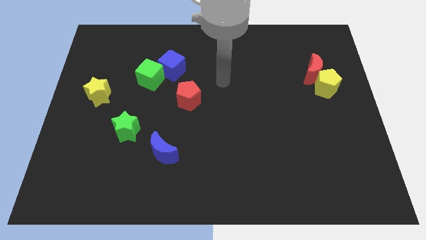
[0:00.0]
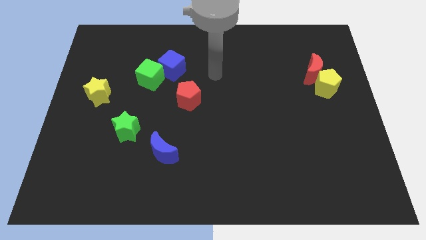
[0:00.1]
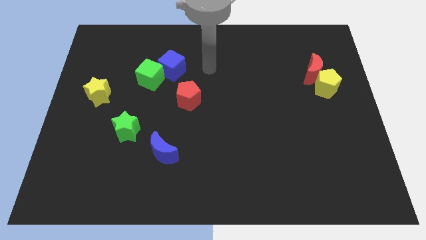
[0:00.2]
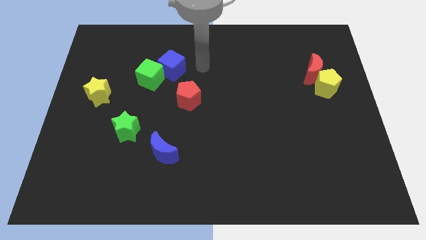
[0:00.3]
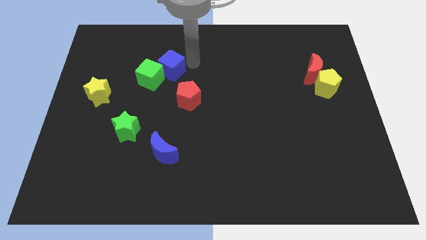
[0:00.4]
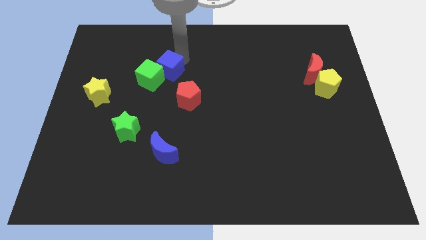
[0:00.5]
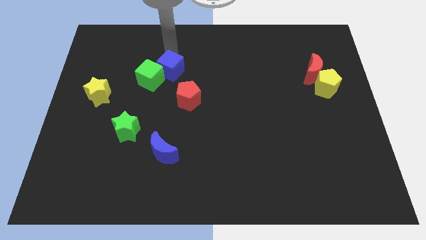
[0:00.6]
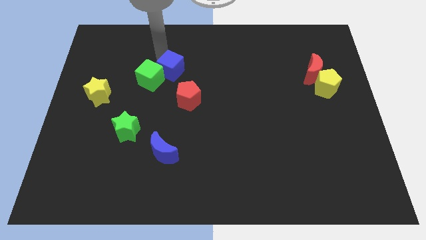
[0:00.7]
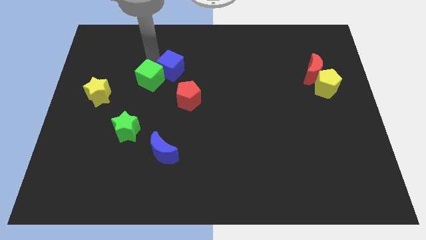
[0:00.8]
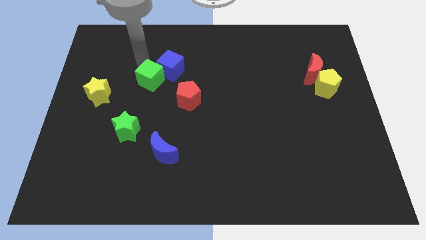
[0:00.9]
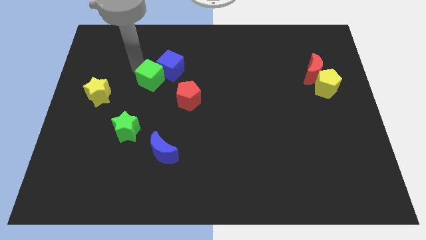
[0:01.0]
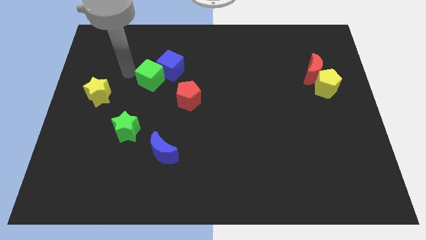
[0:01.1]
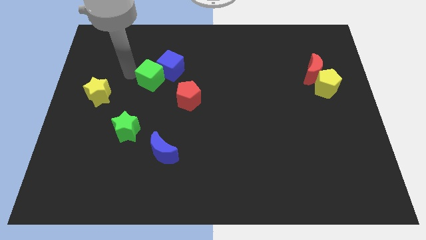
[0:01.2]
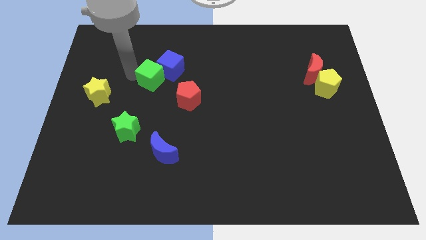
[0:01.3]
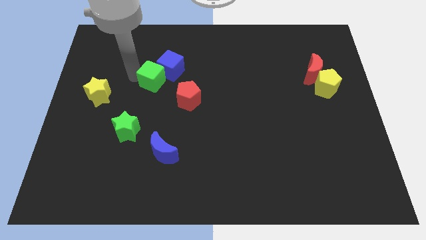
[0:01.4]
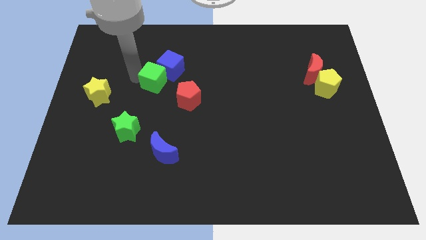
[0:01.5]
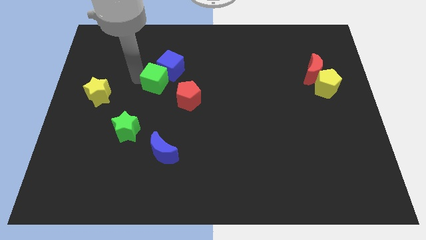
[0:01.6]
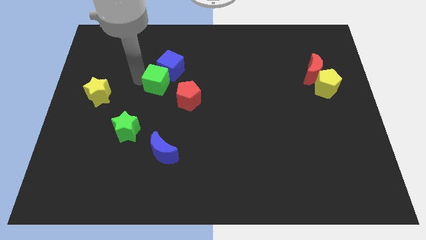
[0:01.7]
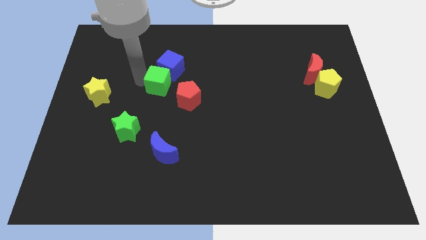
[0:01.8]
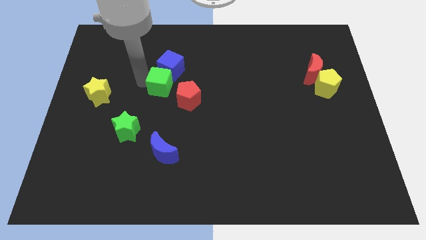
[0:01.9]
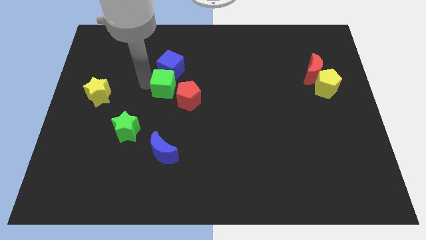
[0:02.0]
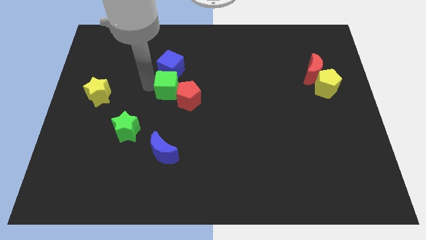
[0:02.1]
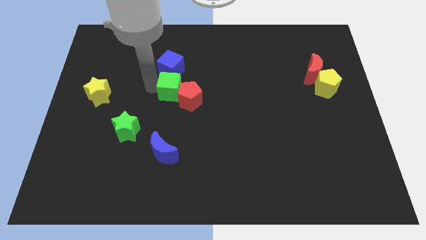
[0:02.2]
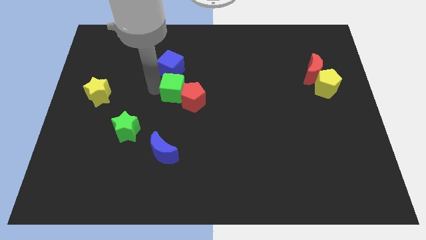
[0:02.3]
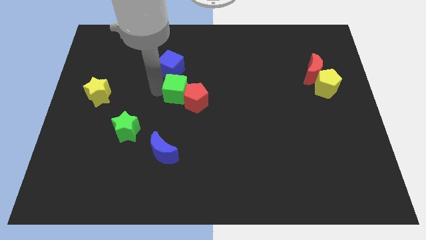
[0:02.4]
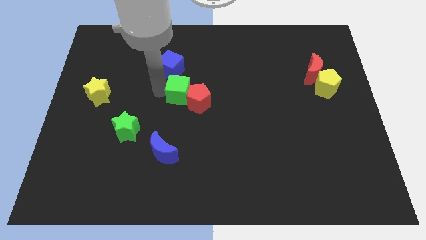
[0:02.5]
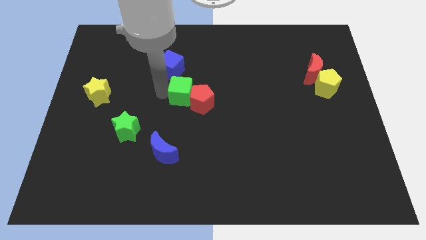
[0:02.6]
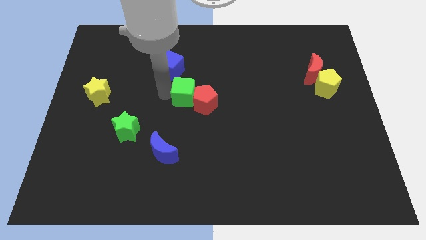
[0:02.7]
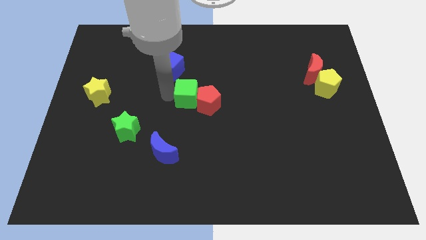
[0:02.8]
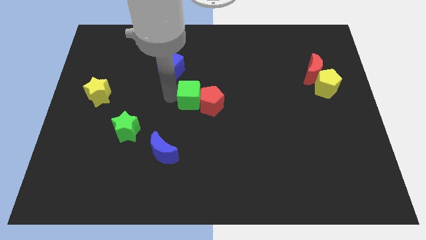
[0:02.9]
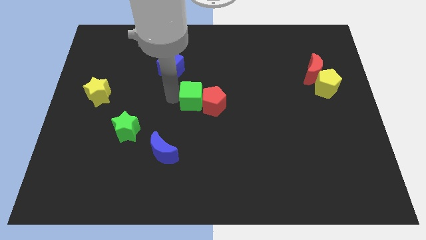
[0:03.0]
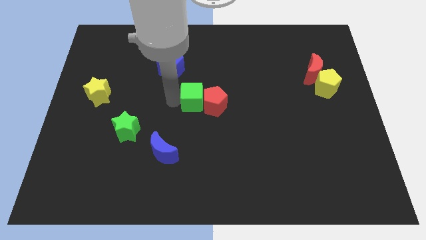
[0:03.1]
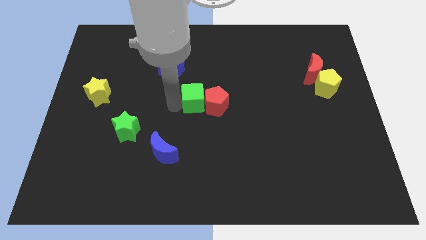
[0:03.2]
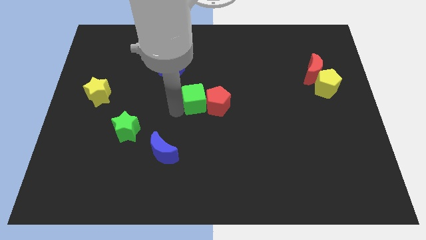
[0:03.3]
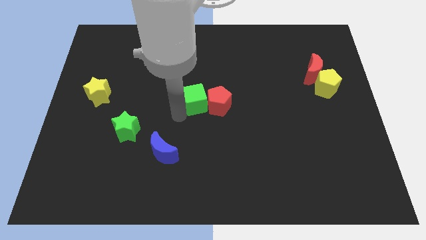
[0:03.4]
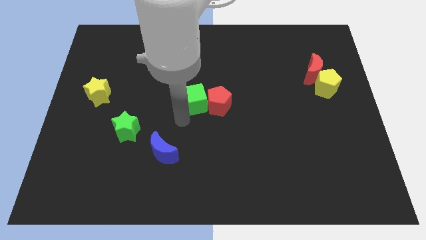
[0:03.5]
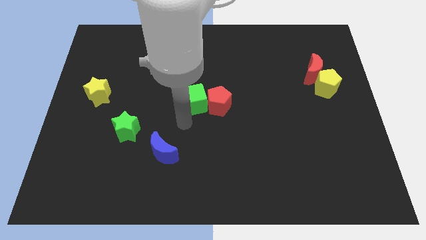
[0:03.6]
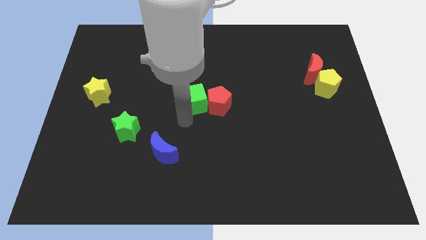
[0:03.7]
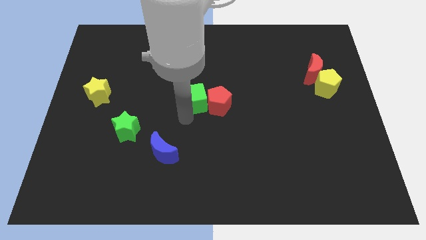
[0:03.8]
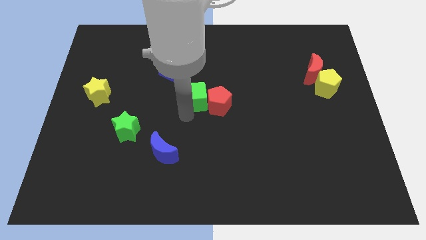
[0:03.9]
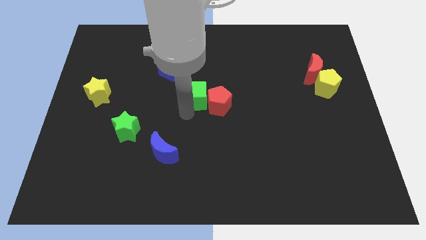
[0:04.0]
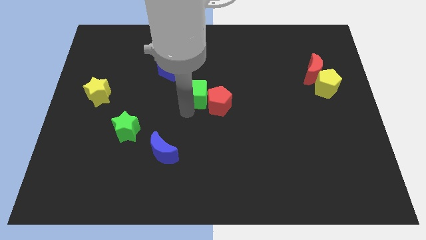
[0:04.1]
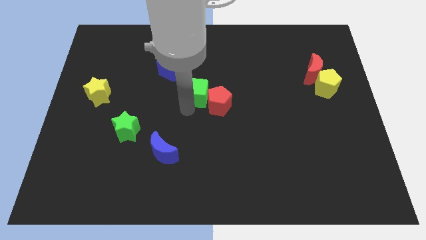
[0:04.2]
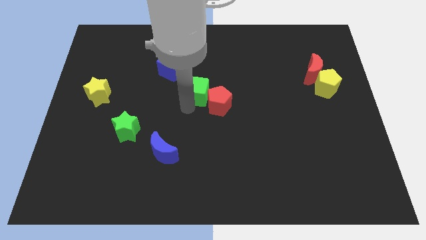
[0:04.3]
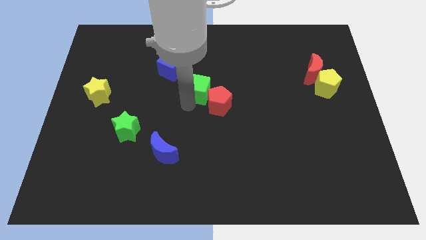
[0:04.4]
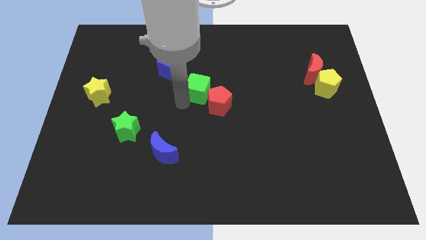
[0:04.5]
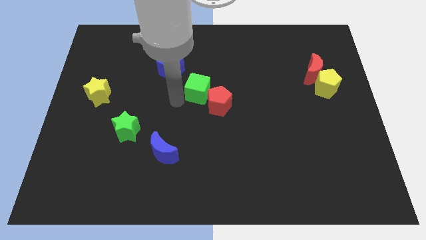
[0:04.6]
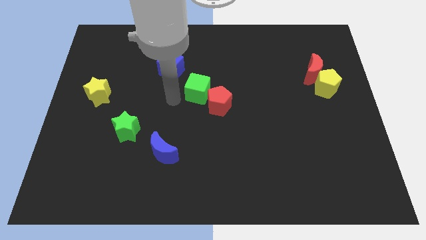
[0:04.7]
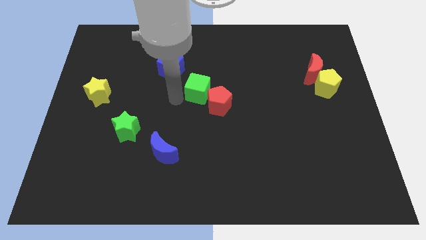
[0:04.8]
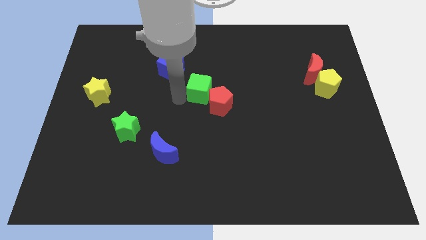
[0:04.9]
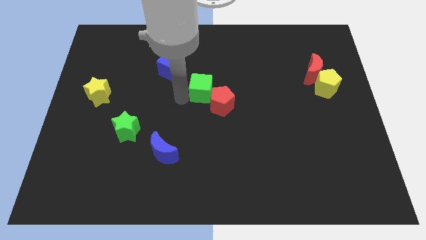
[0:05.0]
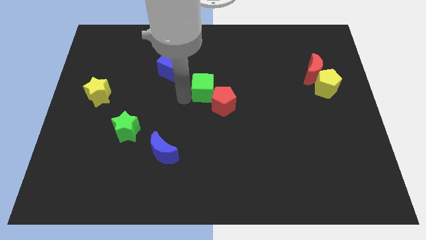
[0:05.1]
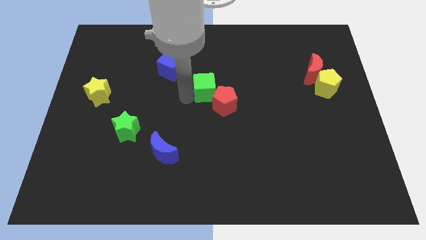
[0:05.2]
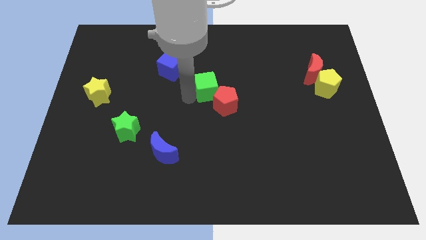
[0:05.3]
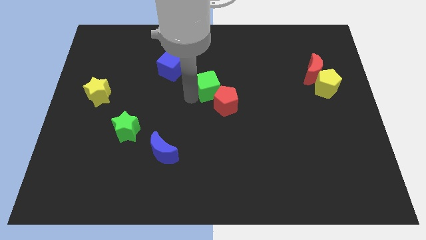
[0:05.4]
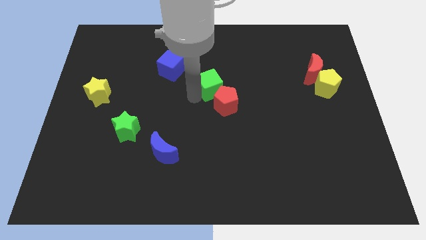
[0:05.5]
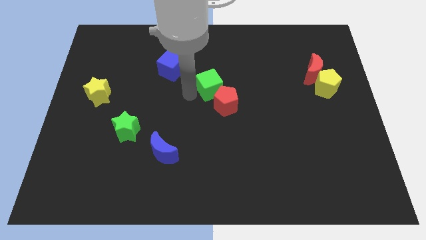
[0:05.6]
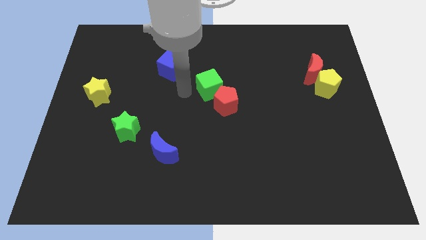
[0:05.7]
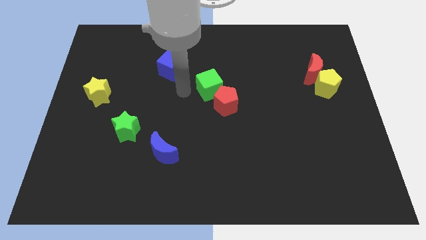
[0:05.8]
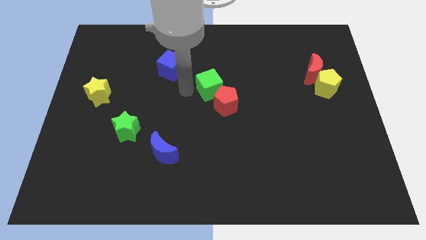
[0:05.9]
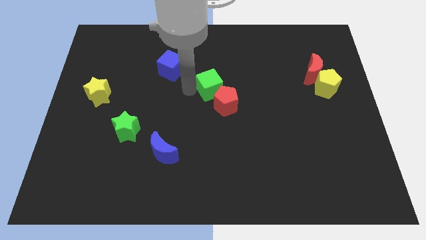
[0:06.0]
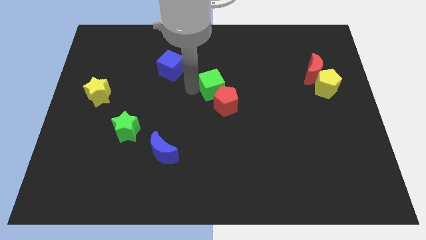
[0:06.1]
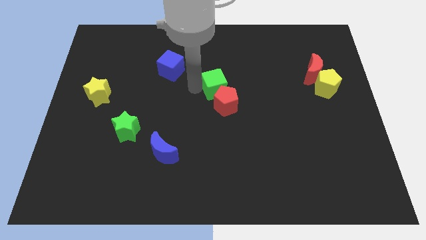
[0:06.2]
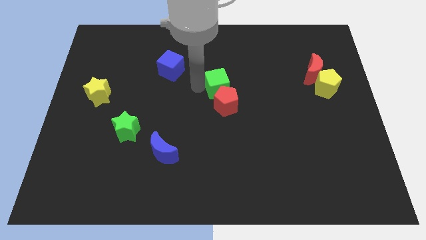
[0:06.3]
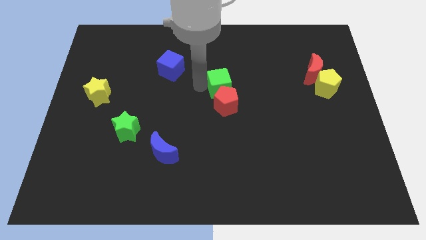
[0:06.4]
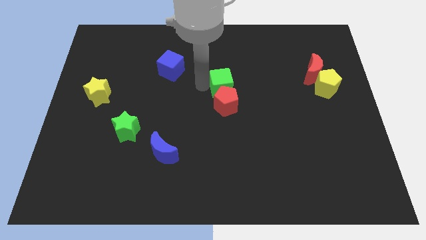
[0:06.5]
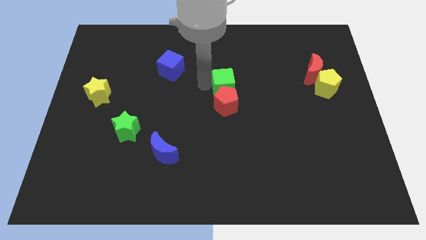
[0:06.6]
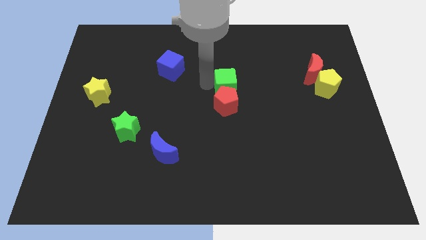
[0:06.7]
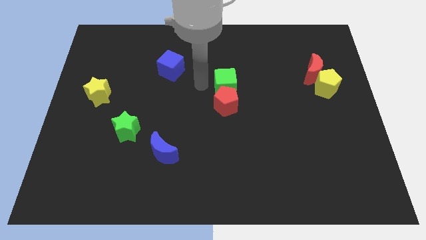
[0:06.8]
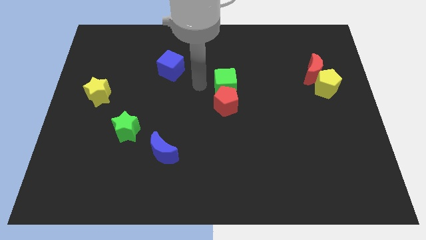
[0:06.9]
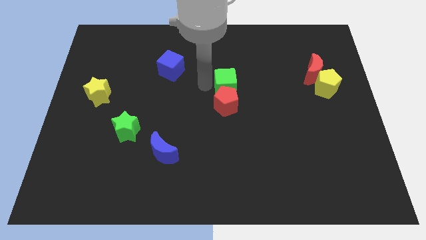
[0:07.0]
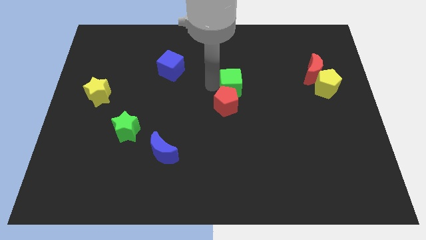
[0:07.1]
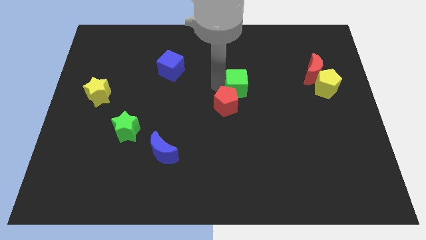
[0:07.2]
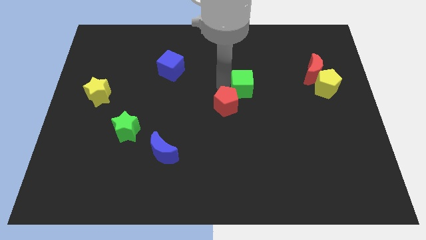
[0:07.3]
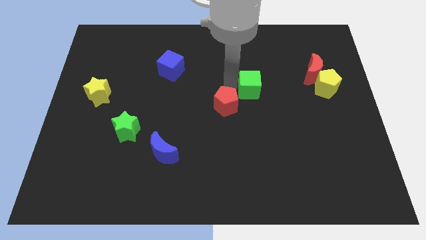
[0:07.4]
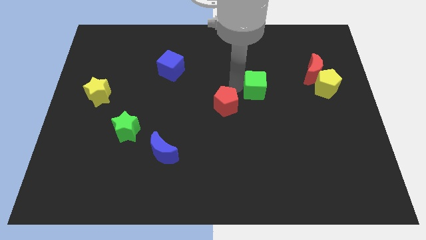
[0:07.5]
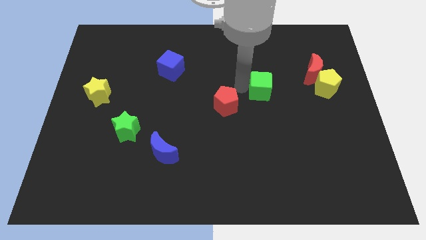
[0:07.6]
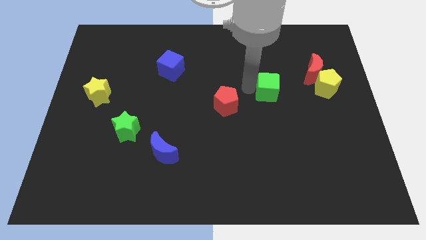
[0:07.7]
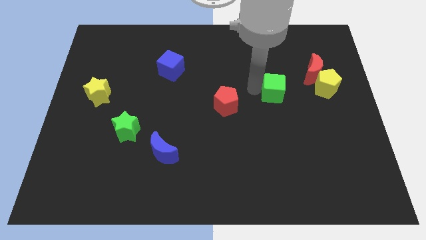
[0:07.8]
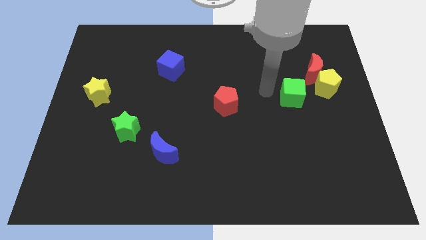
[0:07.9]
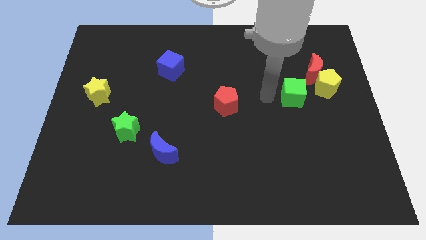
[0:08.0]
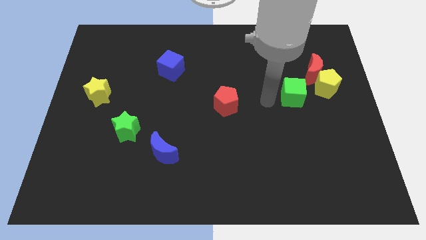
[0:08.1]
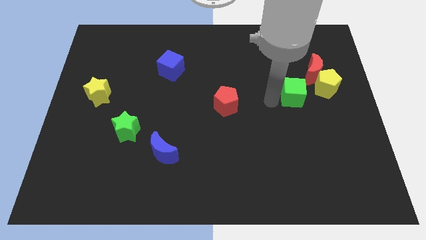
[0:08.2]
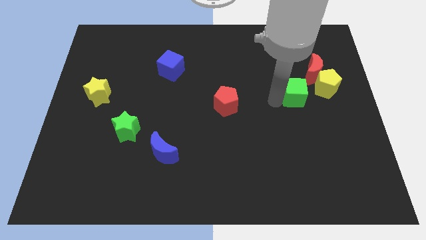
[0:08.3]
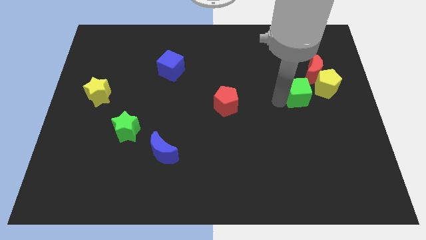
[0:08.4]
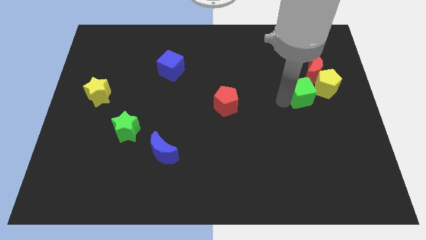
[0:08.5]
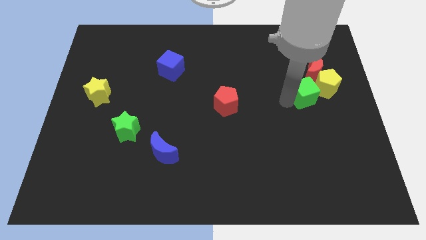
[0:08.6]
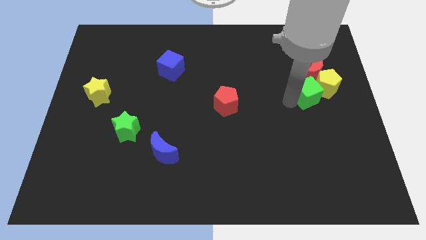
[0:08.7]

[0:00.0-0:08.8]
push the green cube towards the yellow pentagon
